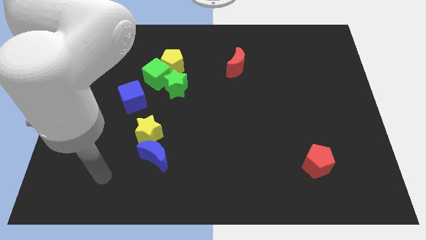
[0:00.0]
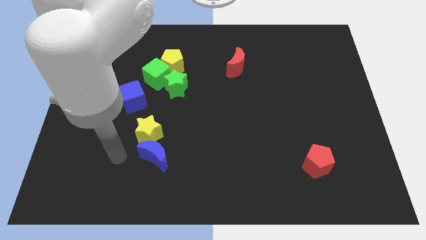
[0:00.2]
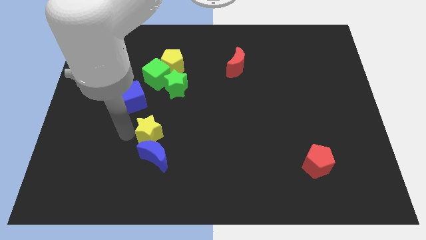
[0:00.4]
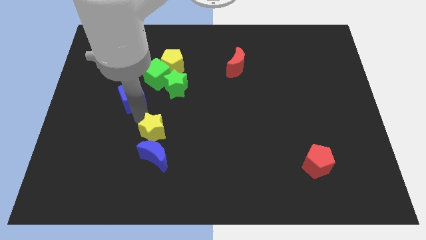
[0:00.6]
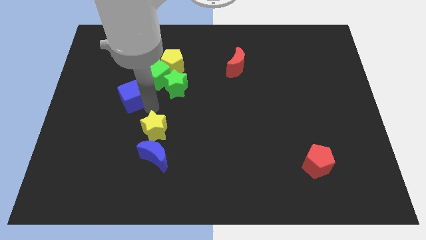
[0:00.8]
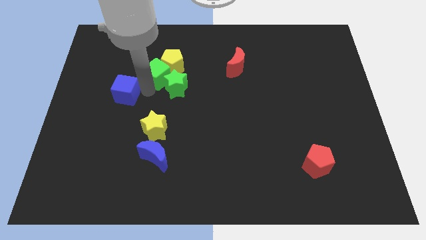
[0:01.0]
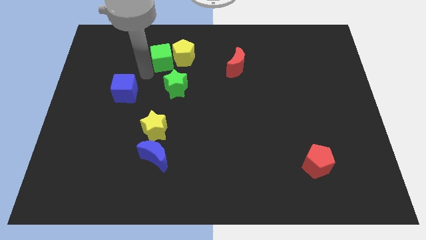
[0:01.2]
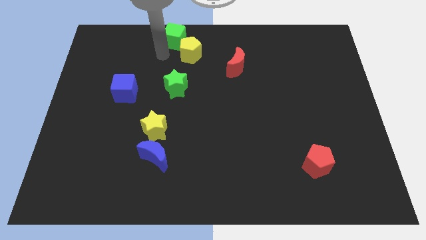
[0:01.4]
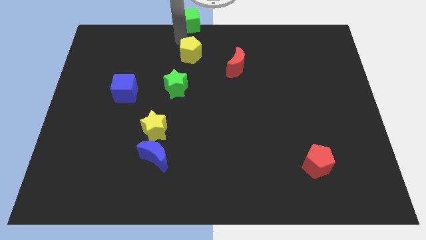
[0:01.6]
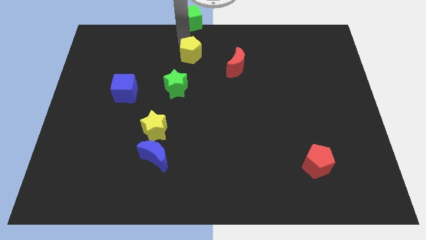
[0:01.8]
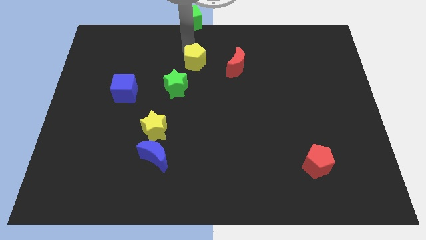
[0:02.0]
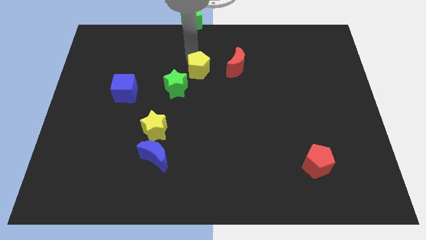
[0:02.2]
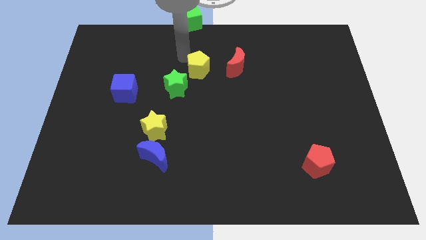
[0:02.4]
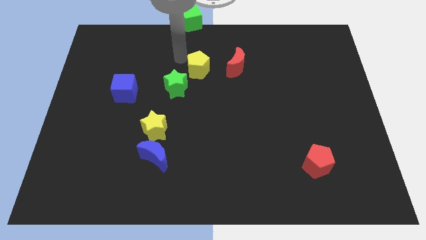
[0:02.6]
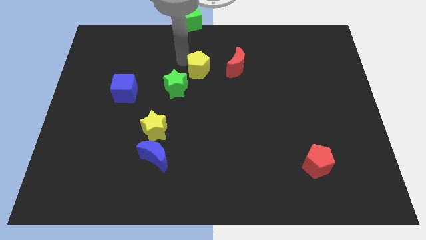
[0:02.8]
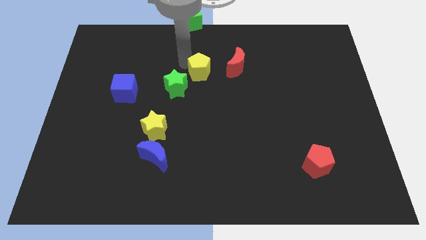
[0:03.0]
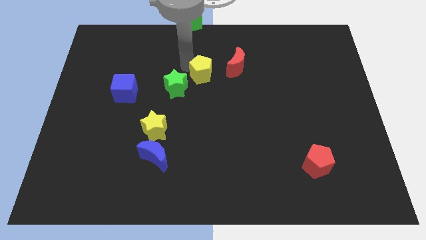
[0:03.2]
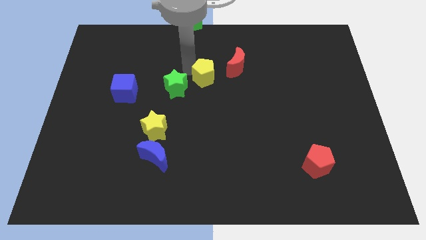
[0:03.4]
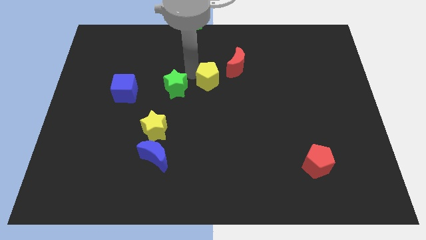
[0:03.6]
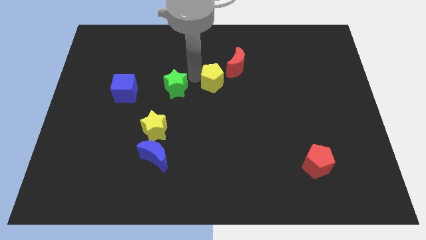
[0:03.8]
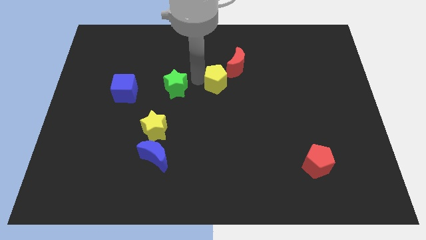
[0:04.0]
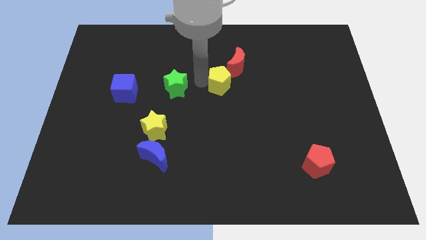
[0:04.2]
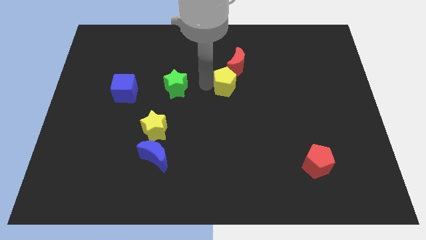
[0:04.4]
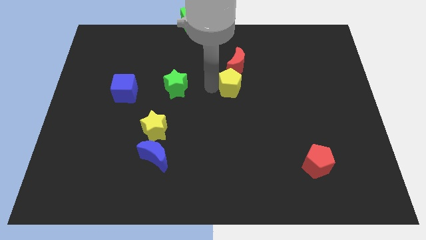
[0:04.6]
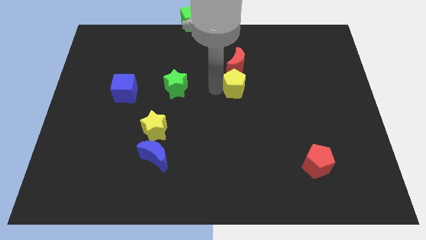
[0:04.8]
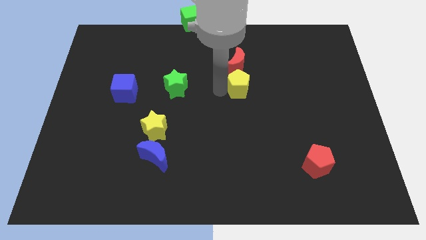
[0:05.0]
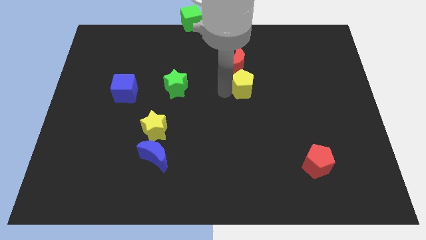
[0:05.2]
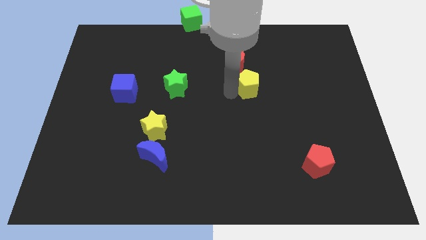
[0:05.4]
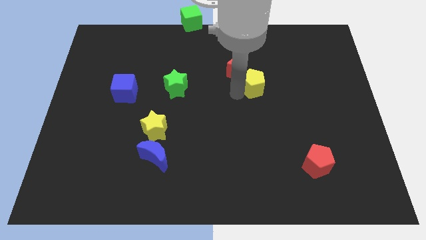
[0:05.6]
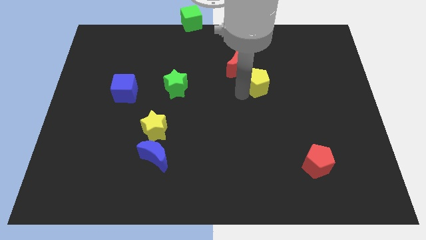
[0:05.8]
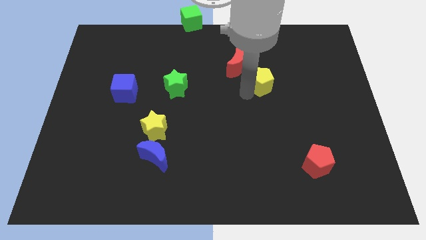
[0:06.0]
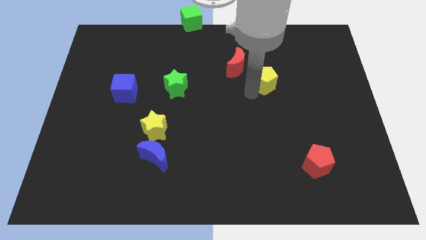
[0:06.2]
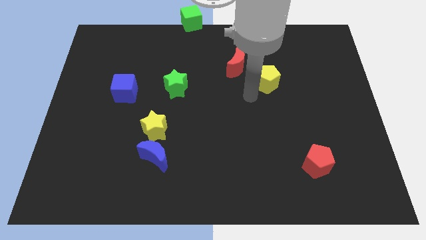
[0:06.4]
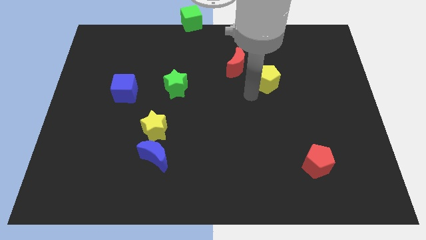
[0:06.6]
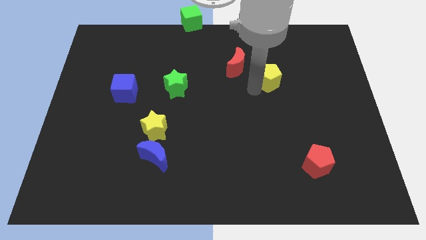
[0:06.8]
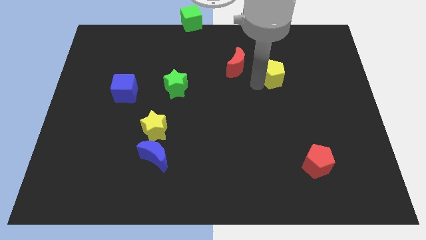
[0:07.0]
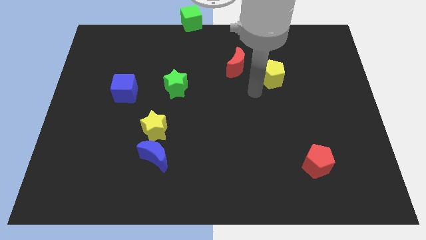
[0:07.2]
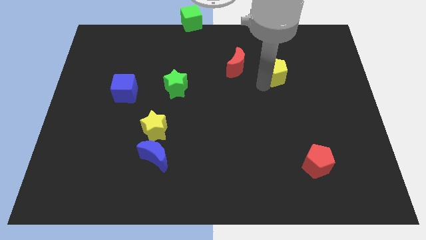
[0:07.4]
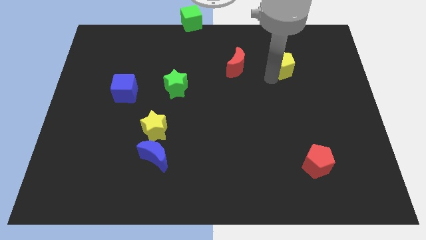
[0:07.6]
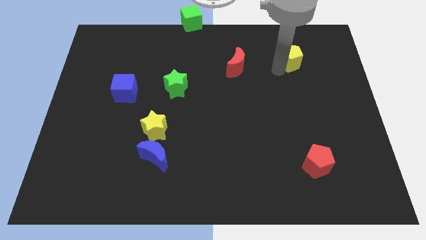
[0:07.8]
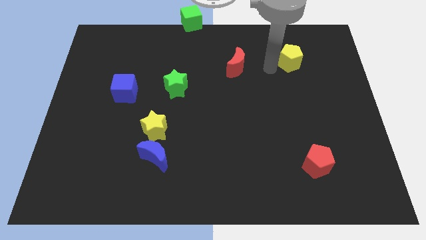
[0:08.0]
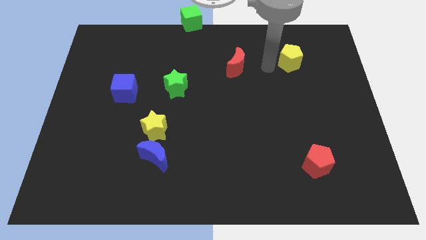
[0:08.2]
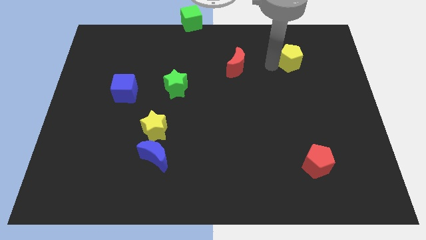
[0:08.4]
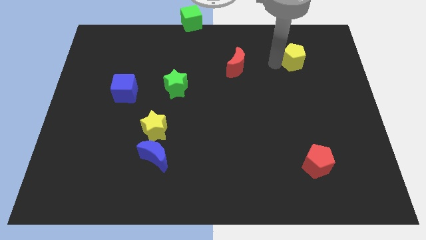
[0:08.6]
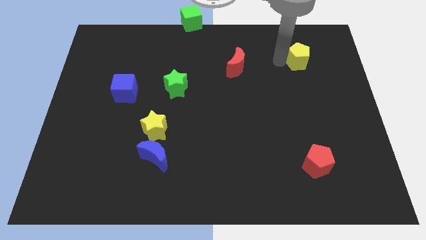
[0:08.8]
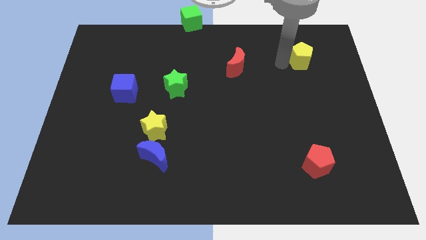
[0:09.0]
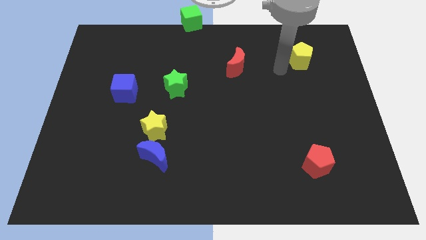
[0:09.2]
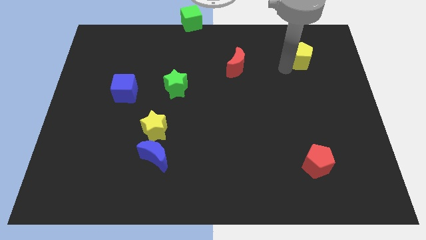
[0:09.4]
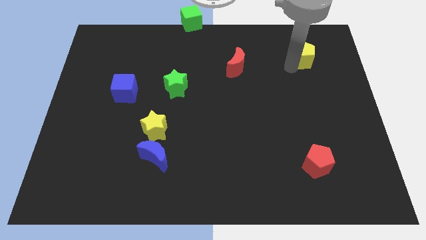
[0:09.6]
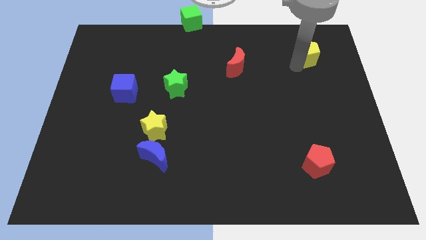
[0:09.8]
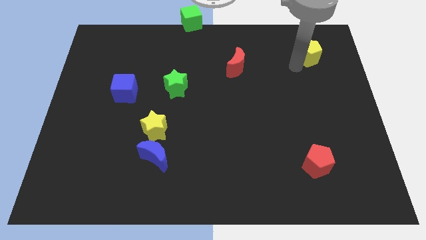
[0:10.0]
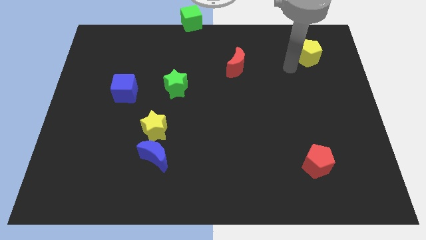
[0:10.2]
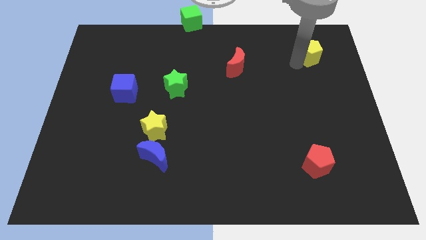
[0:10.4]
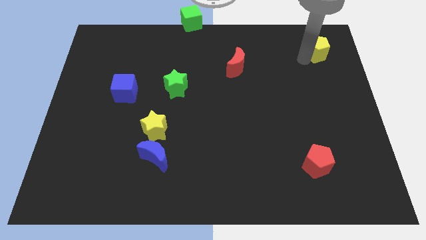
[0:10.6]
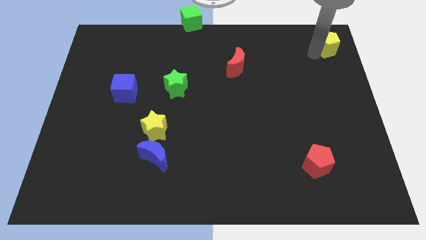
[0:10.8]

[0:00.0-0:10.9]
slide the yellow pentagon to the top right of the board
